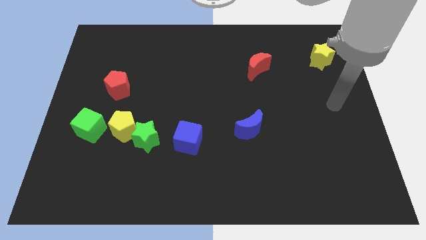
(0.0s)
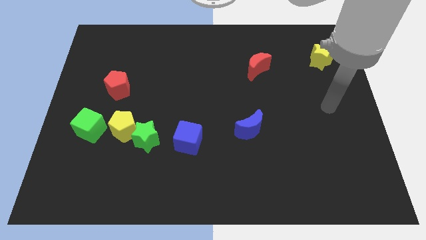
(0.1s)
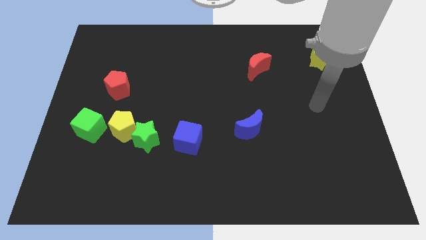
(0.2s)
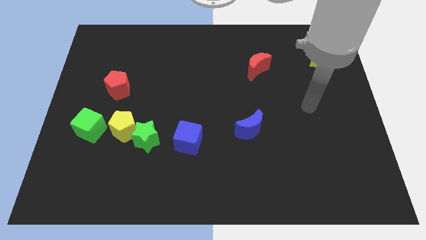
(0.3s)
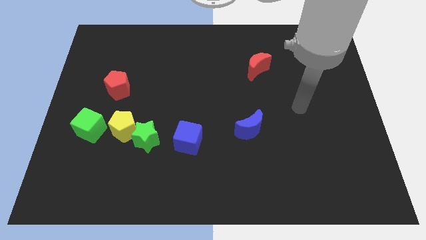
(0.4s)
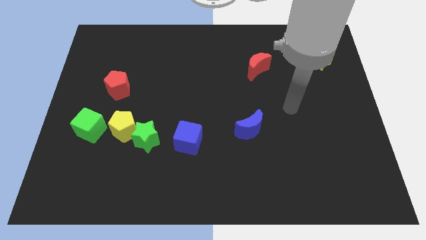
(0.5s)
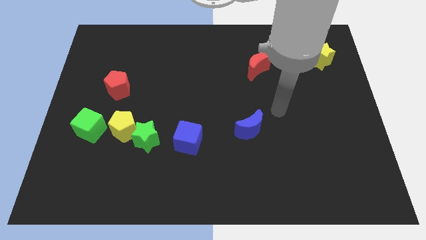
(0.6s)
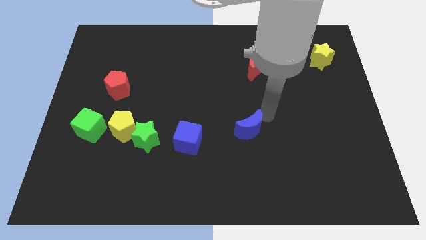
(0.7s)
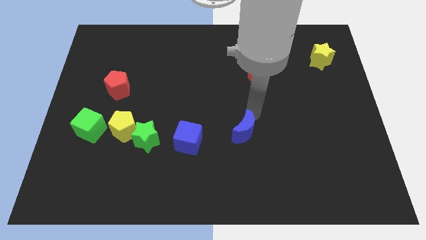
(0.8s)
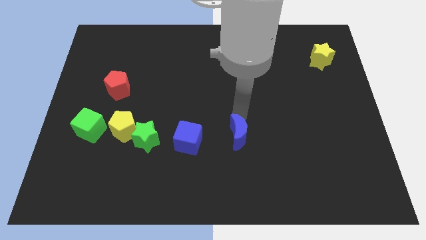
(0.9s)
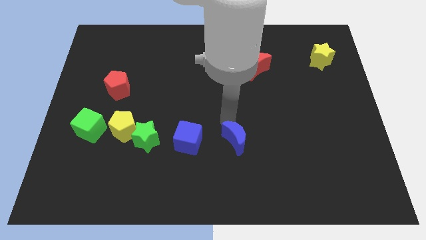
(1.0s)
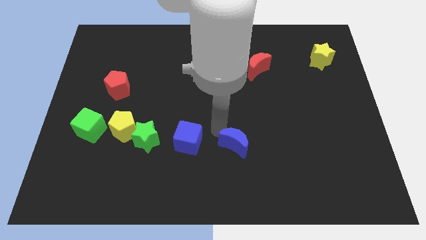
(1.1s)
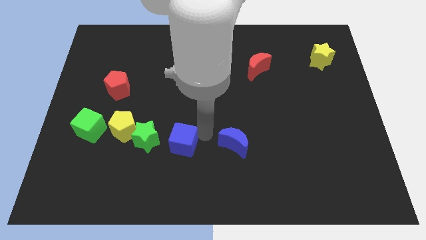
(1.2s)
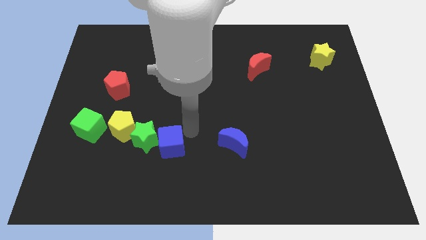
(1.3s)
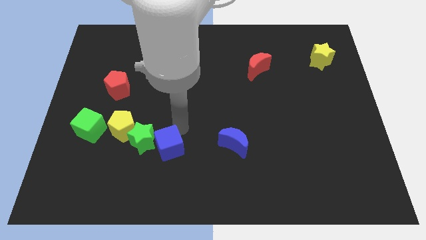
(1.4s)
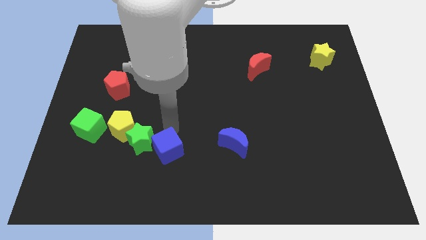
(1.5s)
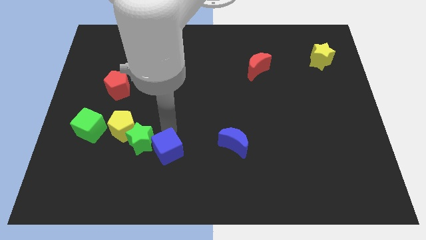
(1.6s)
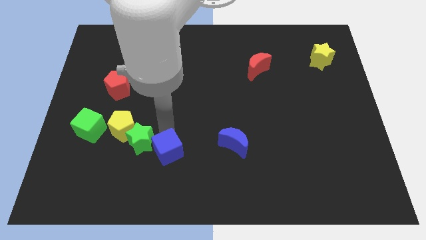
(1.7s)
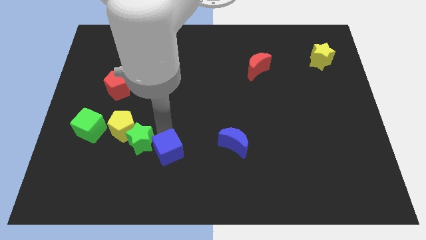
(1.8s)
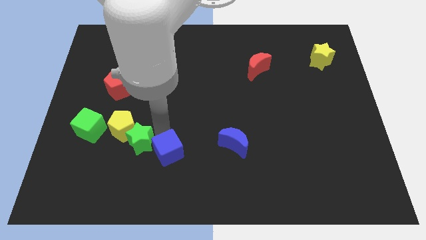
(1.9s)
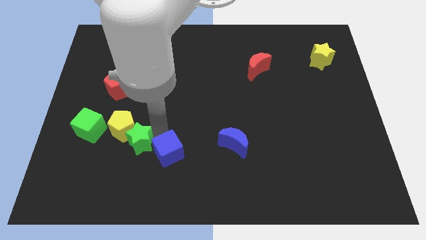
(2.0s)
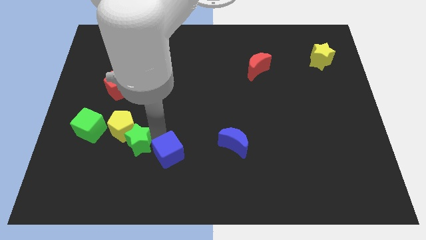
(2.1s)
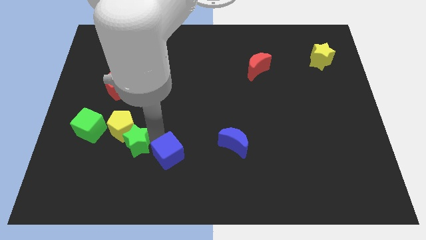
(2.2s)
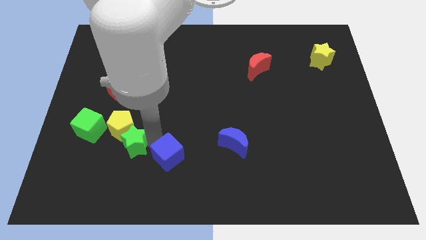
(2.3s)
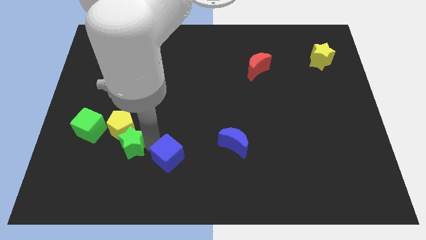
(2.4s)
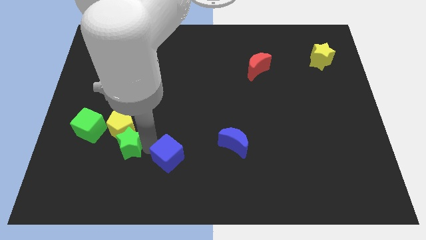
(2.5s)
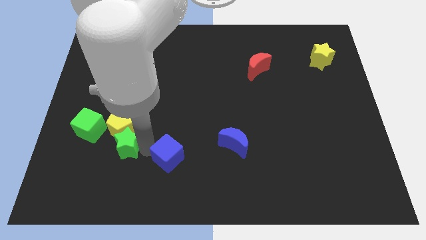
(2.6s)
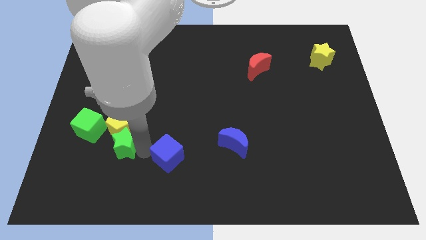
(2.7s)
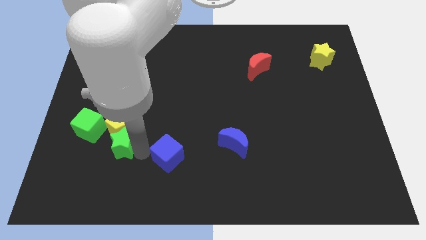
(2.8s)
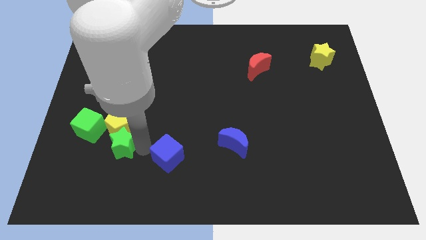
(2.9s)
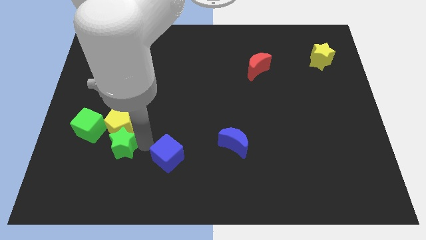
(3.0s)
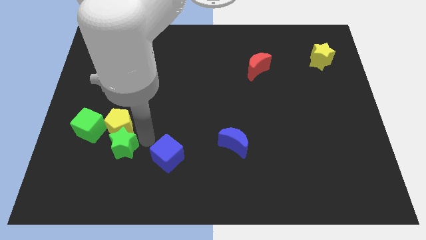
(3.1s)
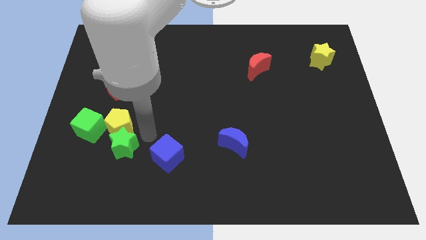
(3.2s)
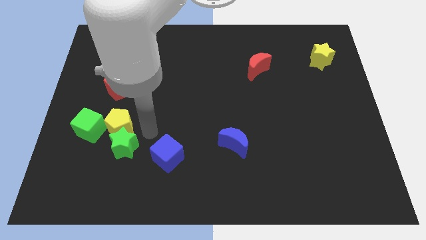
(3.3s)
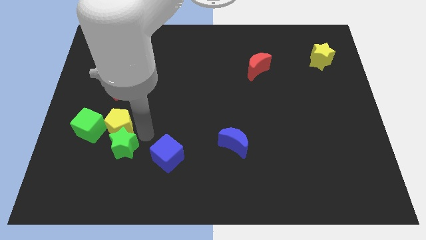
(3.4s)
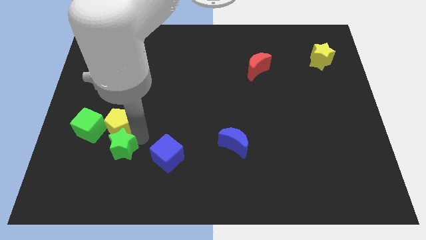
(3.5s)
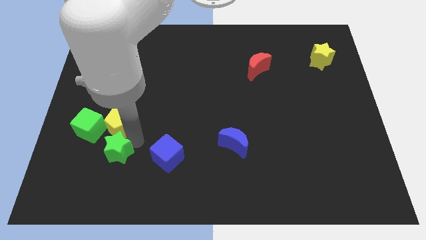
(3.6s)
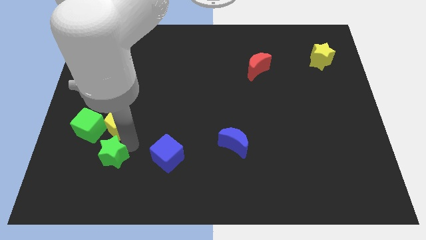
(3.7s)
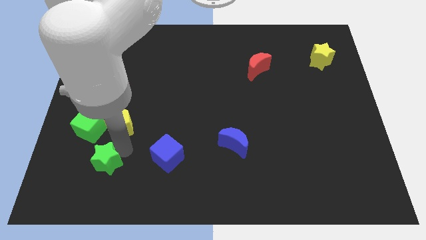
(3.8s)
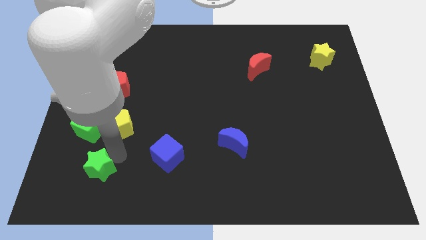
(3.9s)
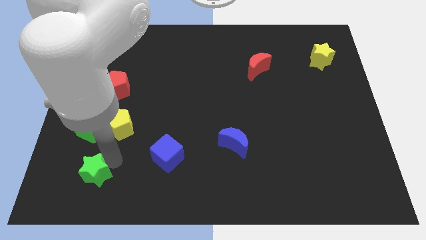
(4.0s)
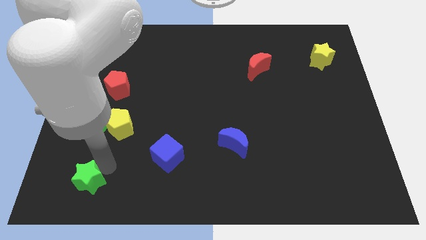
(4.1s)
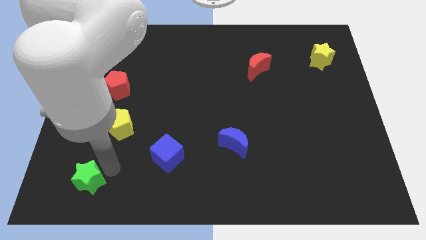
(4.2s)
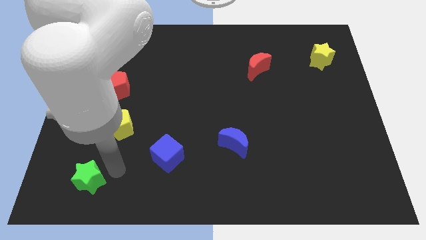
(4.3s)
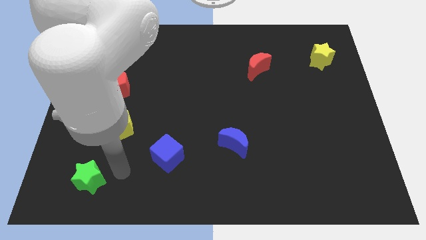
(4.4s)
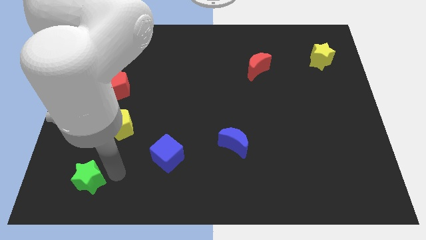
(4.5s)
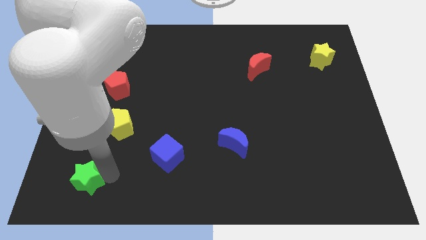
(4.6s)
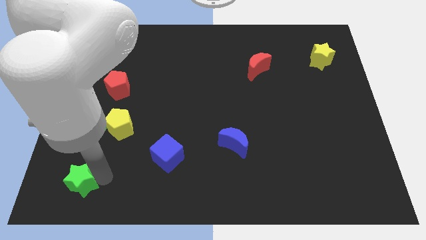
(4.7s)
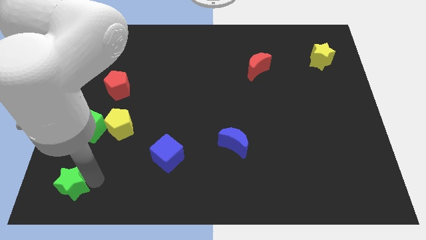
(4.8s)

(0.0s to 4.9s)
push the green star to the lower left corner

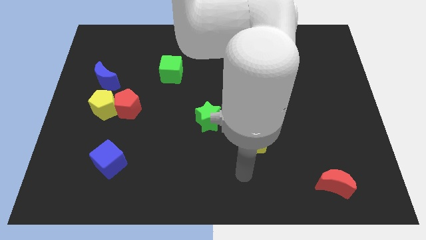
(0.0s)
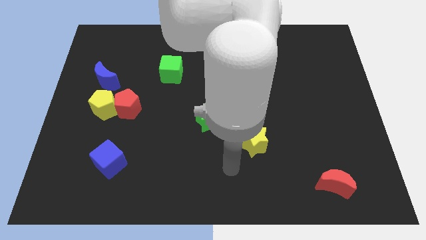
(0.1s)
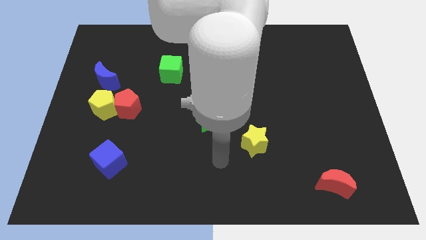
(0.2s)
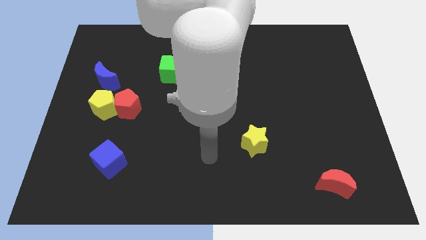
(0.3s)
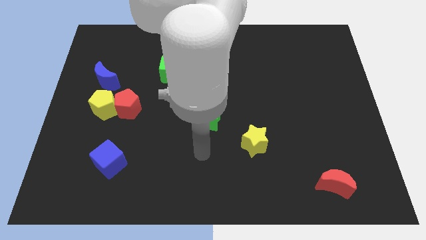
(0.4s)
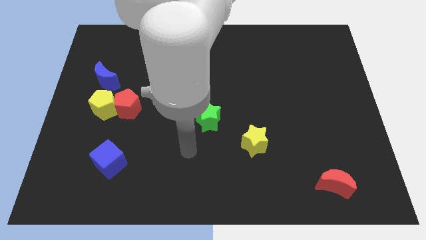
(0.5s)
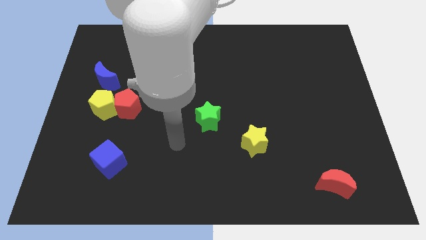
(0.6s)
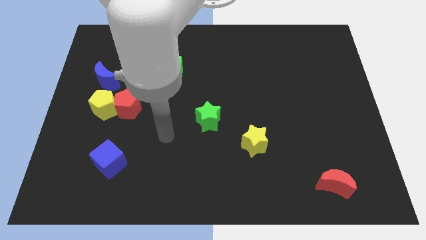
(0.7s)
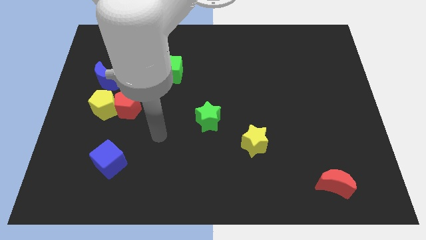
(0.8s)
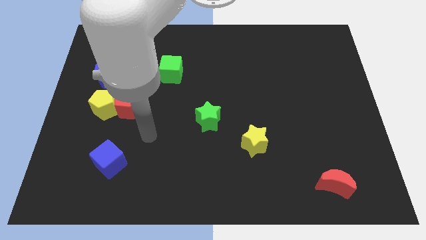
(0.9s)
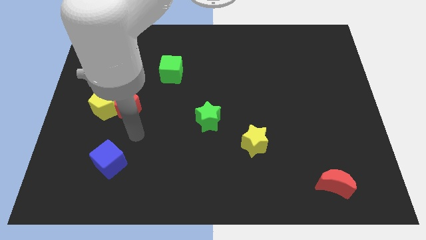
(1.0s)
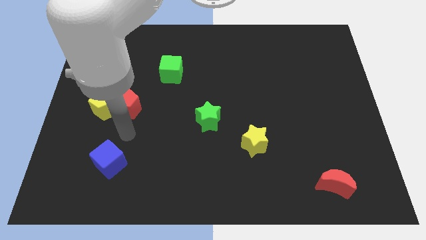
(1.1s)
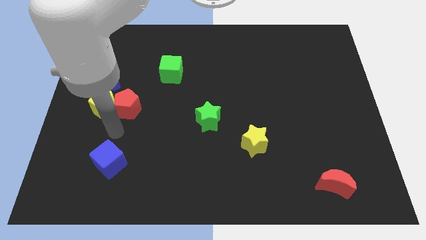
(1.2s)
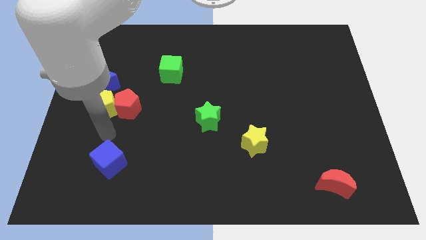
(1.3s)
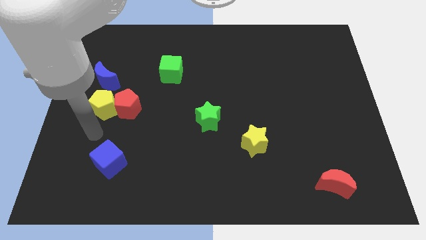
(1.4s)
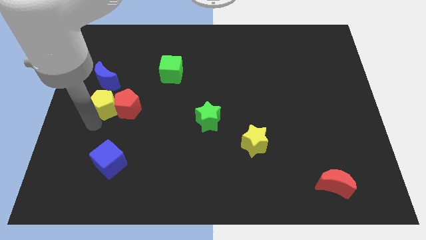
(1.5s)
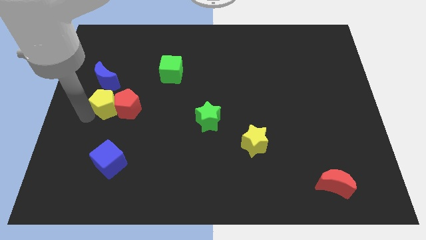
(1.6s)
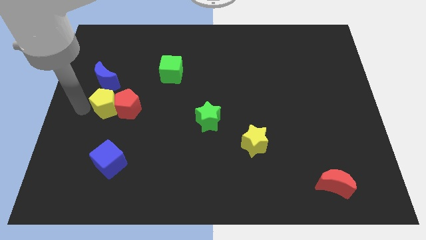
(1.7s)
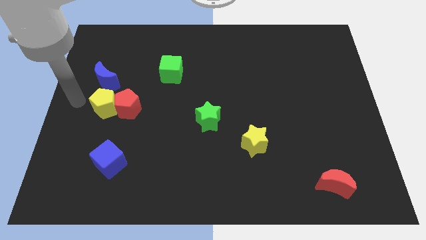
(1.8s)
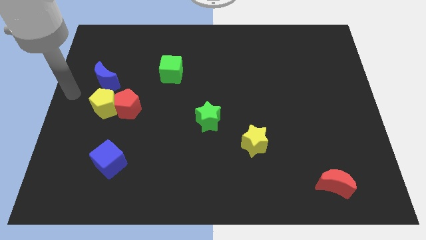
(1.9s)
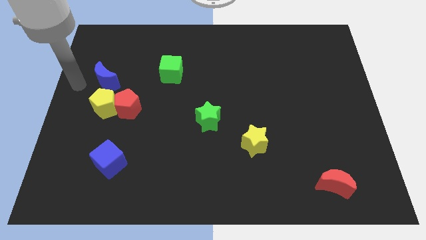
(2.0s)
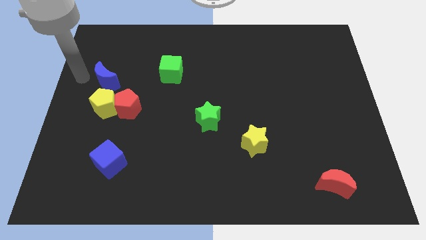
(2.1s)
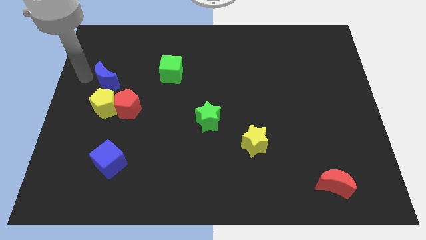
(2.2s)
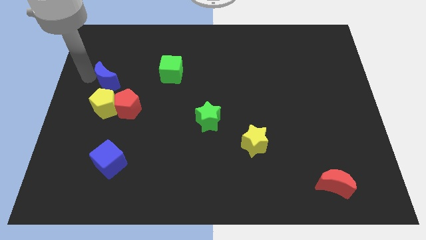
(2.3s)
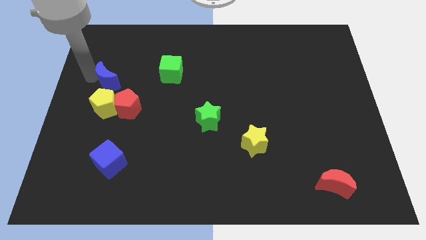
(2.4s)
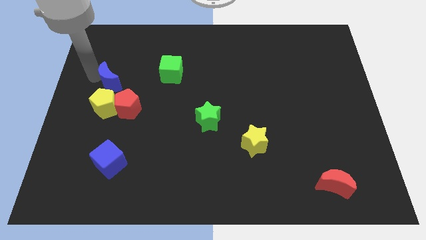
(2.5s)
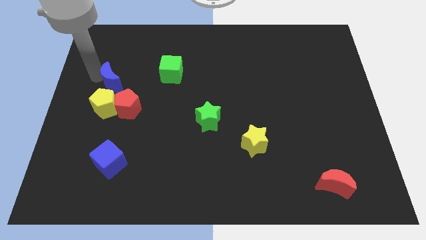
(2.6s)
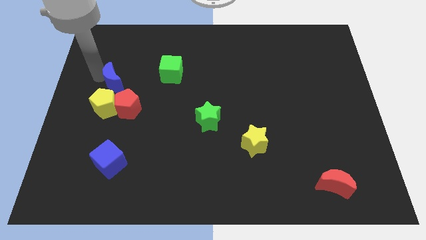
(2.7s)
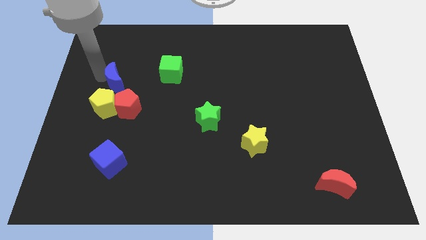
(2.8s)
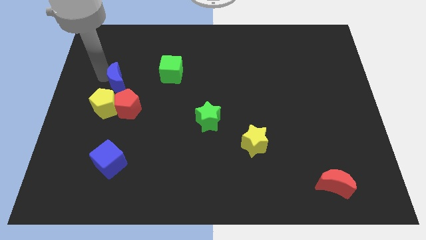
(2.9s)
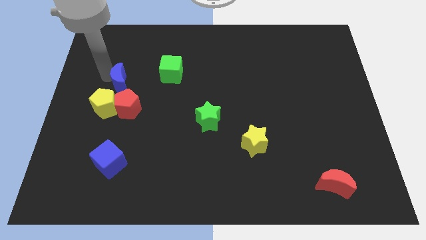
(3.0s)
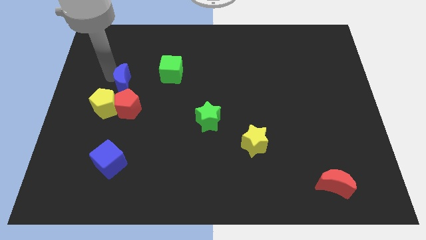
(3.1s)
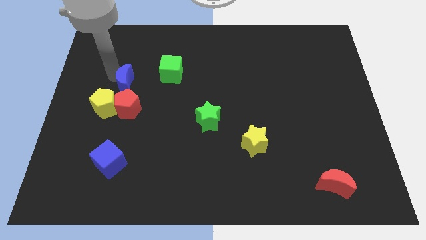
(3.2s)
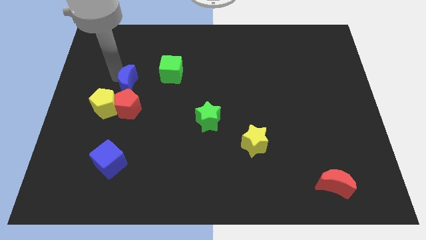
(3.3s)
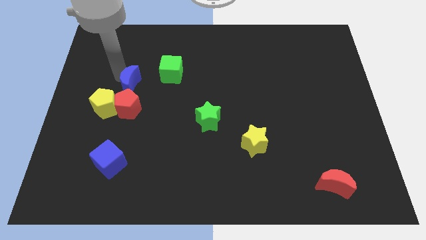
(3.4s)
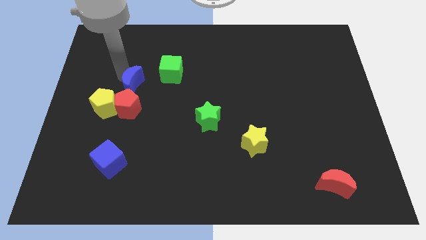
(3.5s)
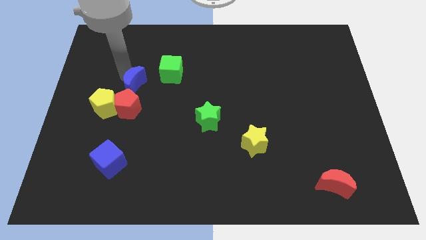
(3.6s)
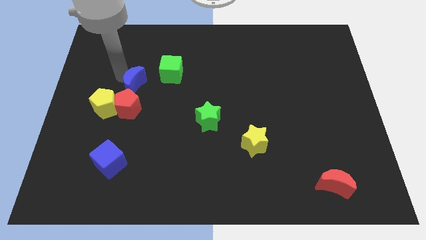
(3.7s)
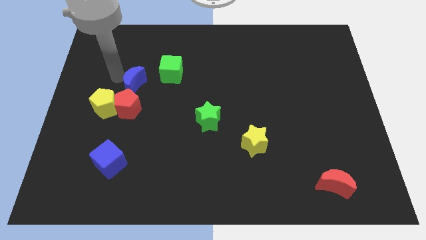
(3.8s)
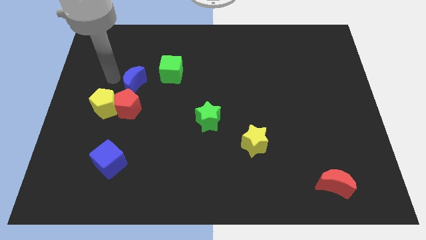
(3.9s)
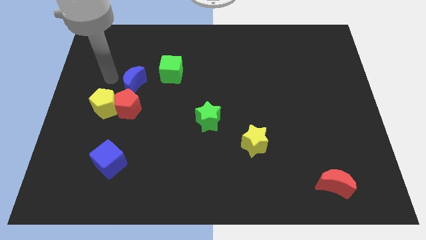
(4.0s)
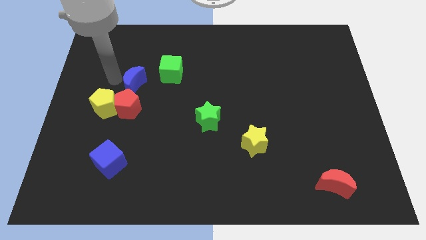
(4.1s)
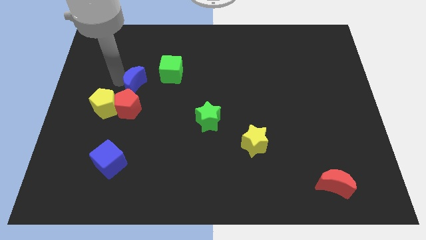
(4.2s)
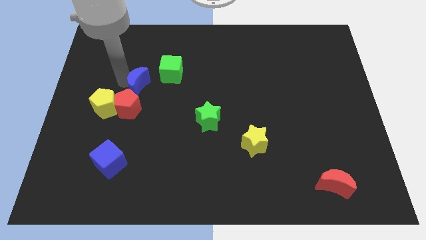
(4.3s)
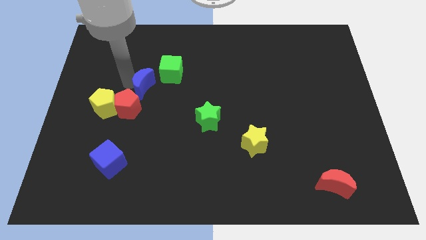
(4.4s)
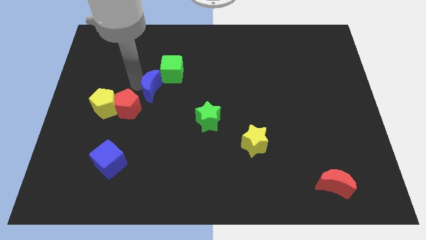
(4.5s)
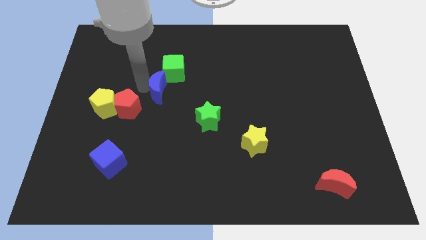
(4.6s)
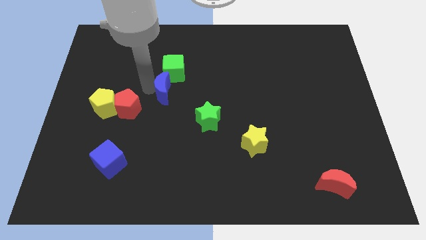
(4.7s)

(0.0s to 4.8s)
put the blue moon to the middle
